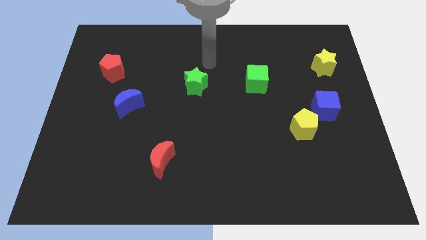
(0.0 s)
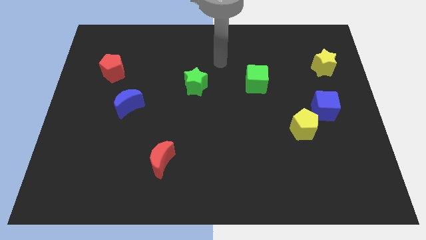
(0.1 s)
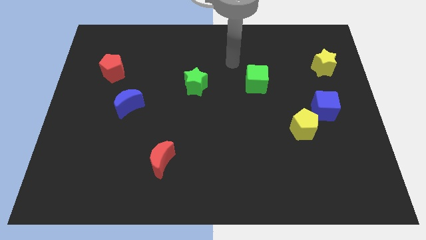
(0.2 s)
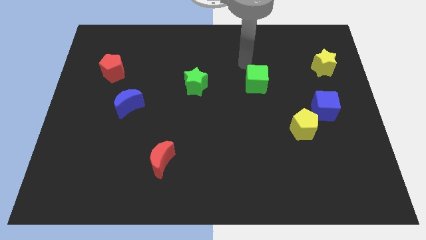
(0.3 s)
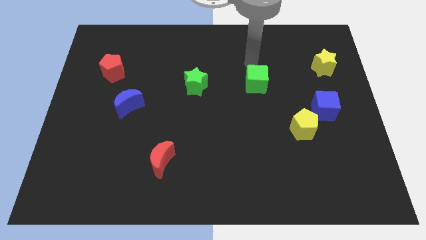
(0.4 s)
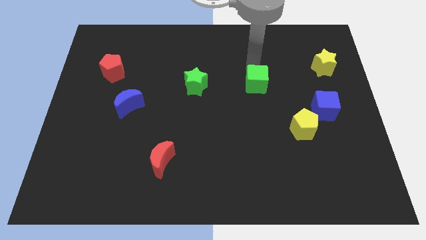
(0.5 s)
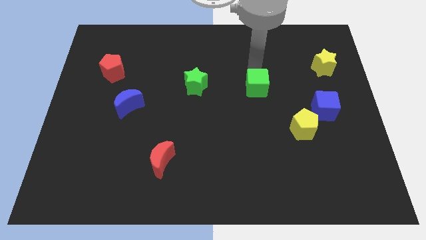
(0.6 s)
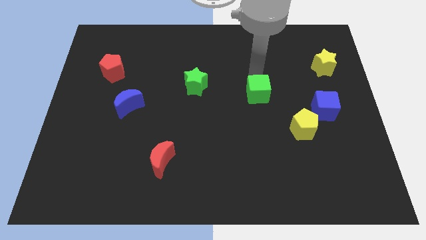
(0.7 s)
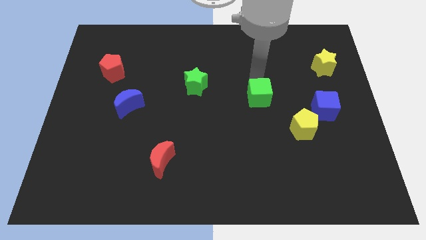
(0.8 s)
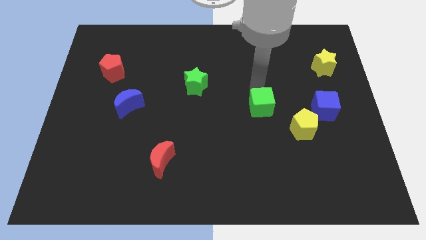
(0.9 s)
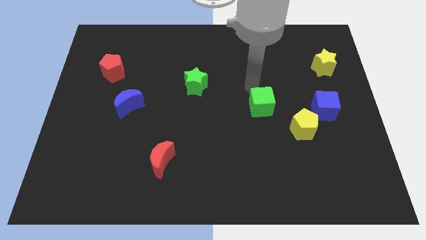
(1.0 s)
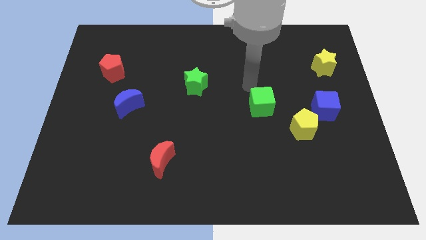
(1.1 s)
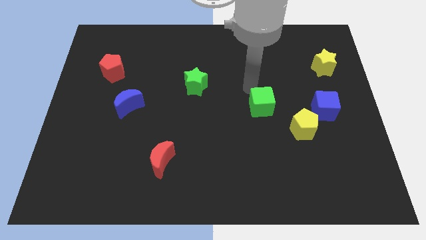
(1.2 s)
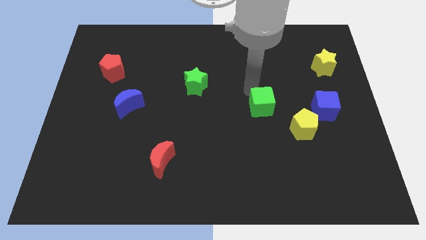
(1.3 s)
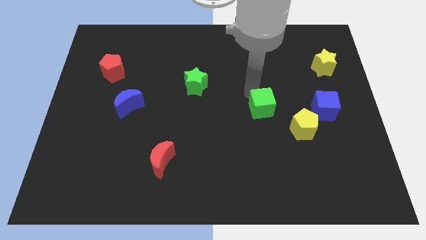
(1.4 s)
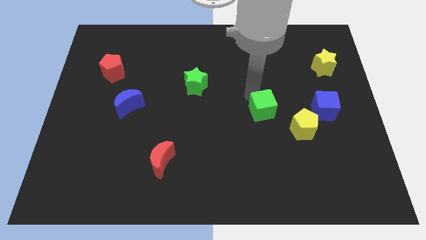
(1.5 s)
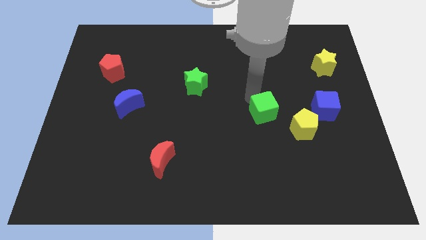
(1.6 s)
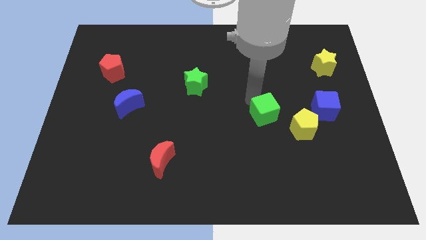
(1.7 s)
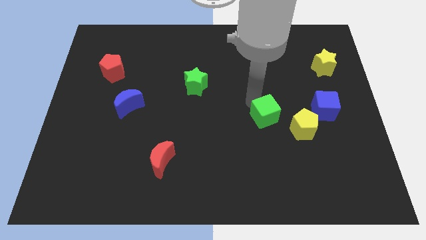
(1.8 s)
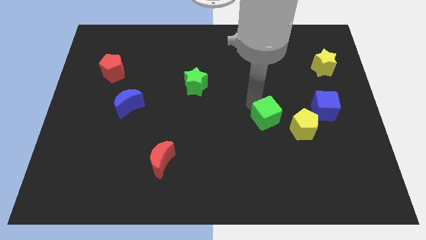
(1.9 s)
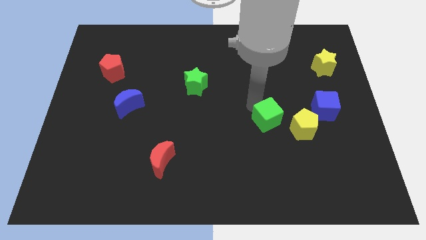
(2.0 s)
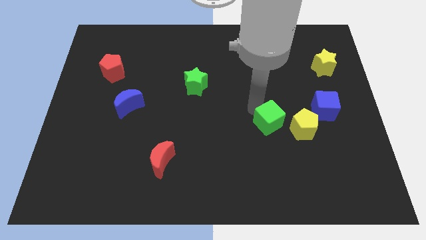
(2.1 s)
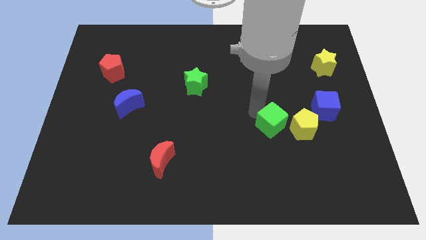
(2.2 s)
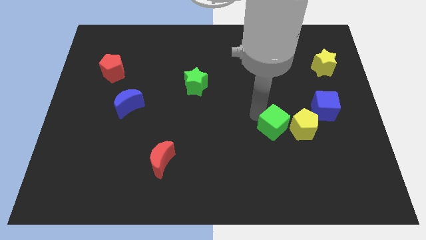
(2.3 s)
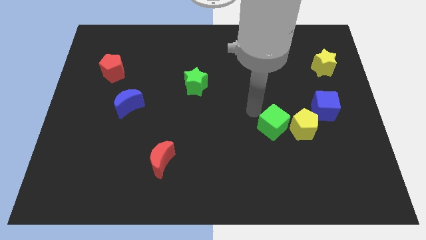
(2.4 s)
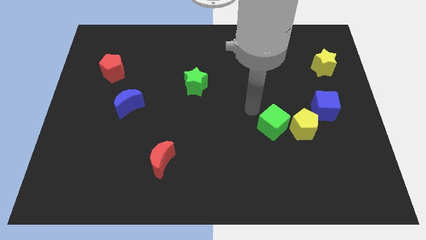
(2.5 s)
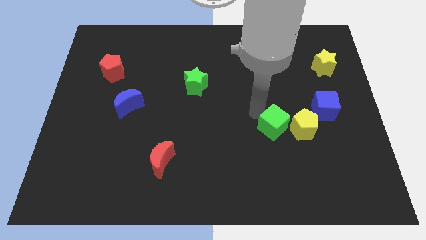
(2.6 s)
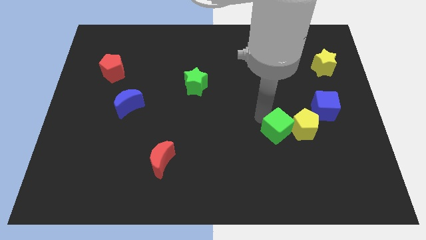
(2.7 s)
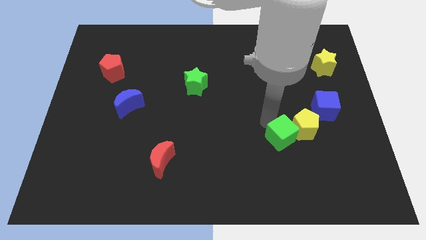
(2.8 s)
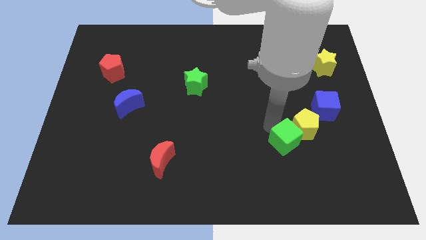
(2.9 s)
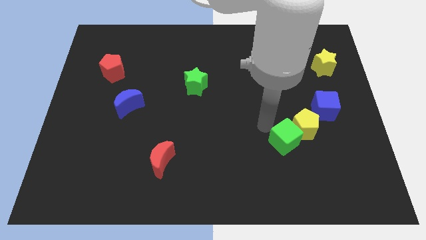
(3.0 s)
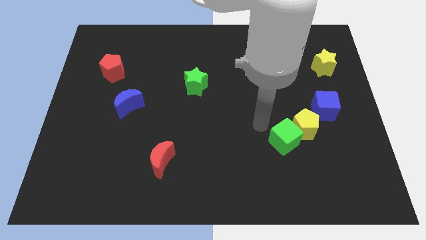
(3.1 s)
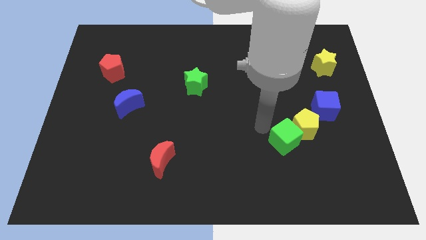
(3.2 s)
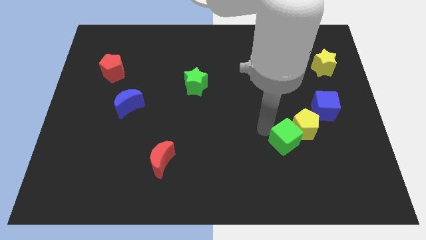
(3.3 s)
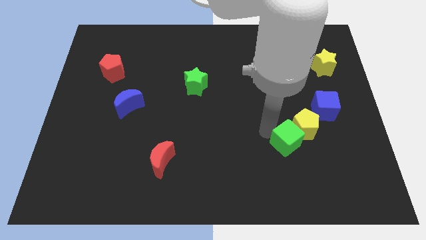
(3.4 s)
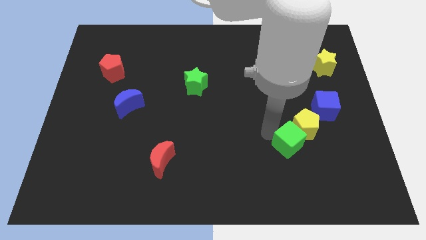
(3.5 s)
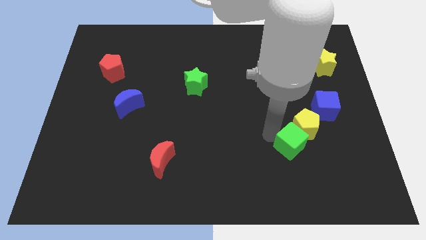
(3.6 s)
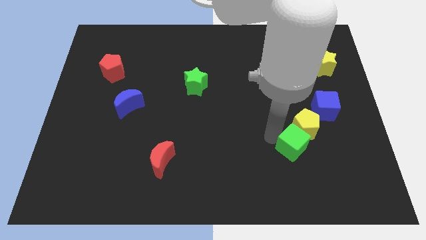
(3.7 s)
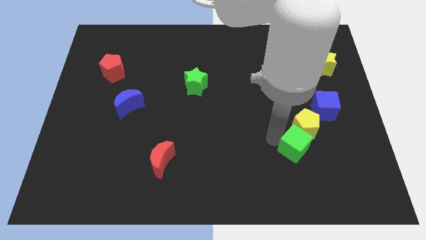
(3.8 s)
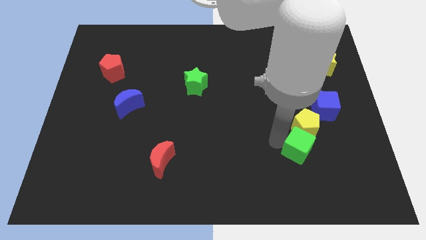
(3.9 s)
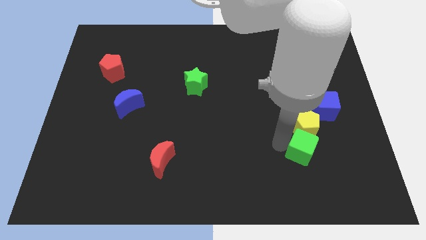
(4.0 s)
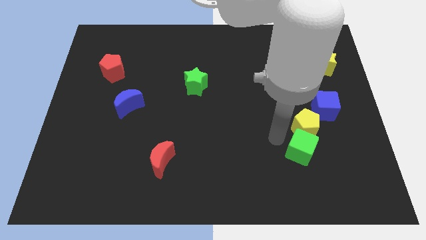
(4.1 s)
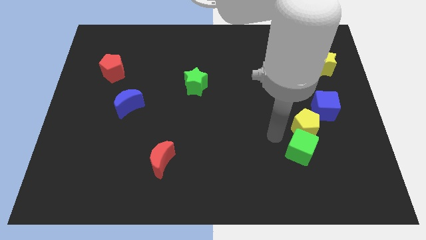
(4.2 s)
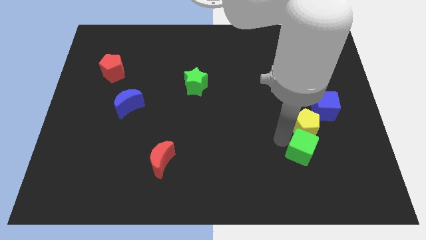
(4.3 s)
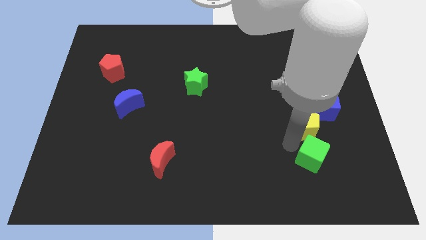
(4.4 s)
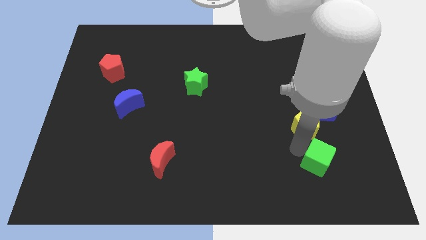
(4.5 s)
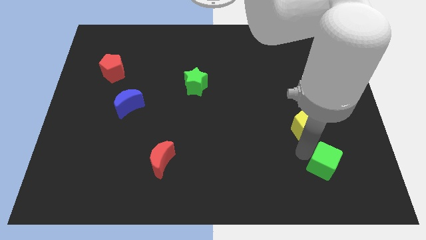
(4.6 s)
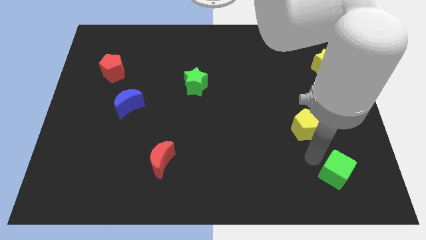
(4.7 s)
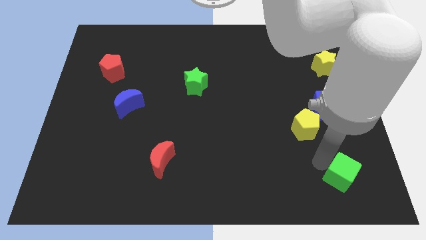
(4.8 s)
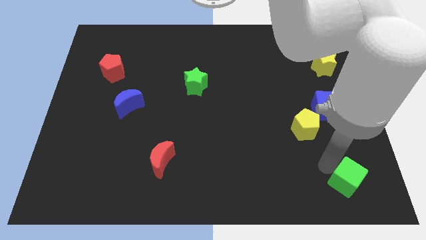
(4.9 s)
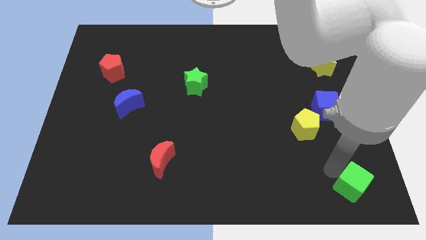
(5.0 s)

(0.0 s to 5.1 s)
slide the green cube to the bottom right

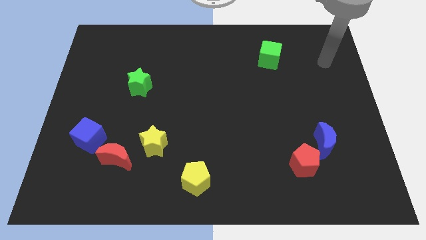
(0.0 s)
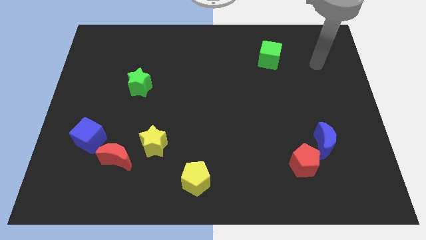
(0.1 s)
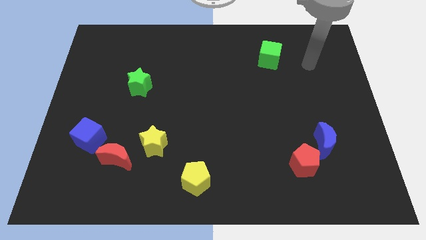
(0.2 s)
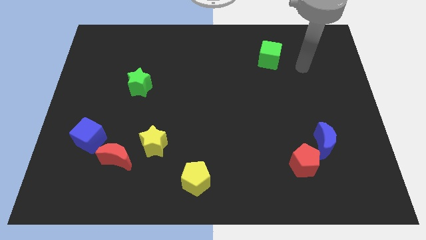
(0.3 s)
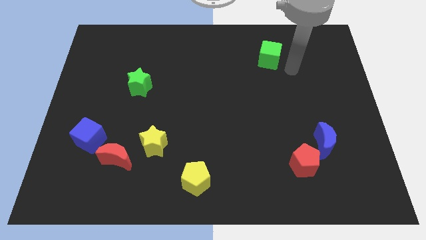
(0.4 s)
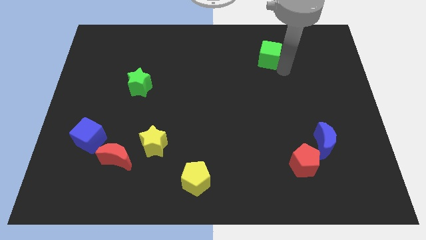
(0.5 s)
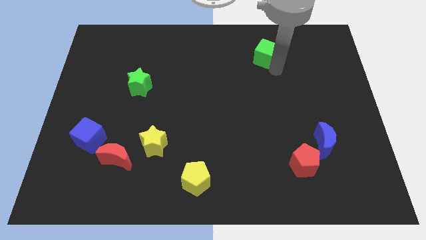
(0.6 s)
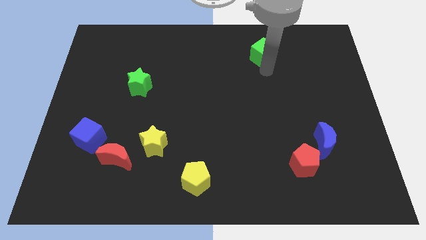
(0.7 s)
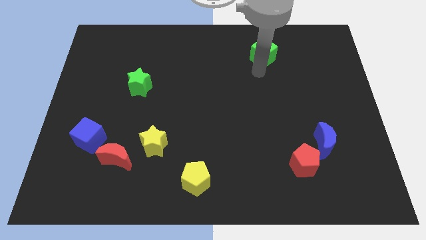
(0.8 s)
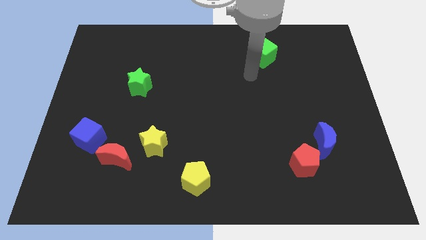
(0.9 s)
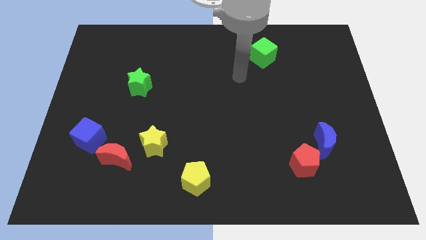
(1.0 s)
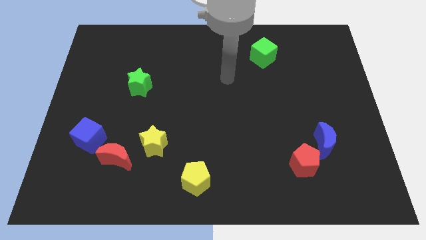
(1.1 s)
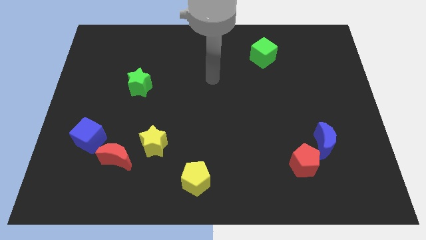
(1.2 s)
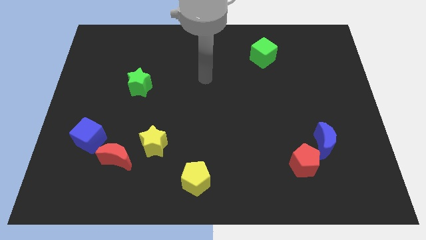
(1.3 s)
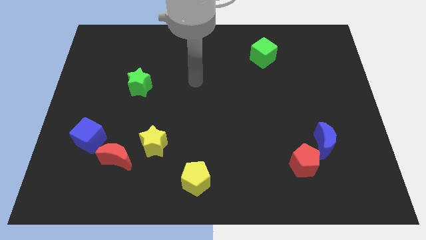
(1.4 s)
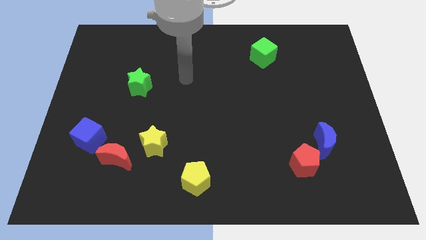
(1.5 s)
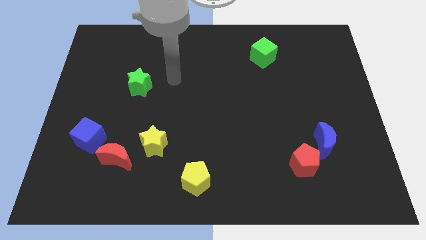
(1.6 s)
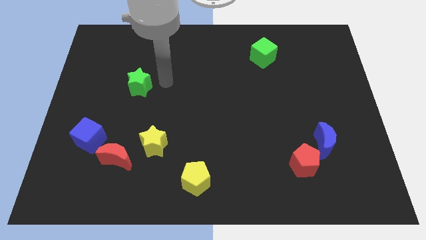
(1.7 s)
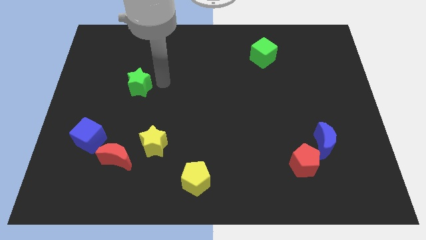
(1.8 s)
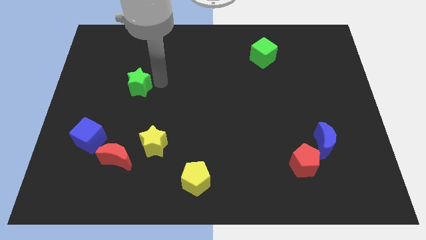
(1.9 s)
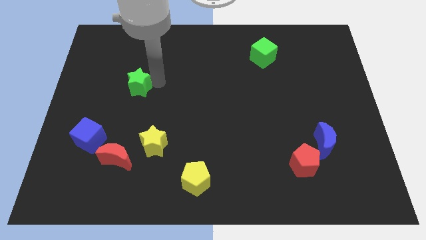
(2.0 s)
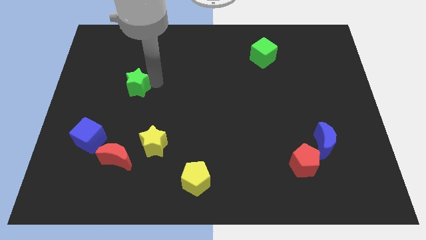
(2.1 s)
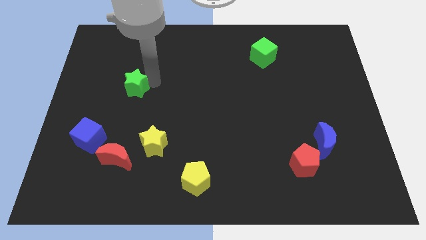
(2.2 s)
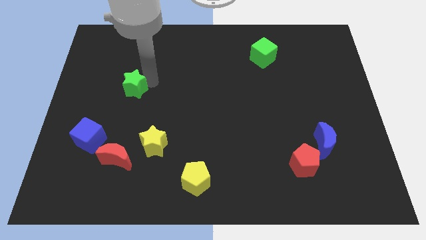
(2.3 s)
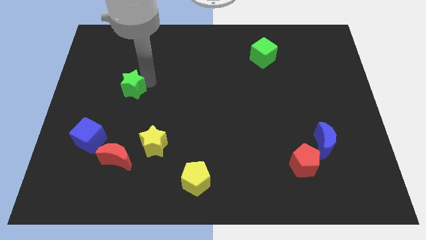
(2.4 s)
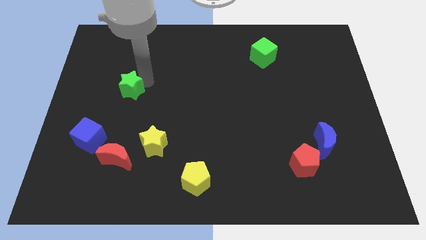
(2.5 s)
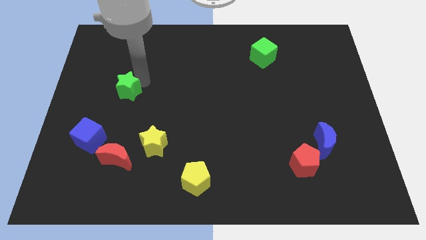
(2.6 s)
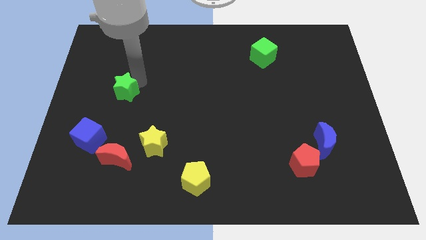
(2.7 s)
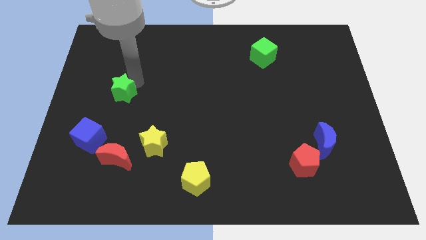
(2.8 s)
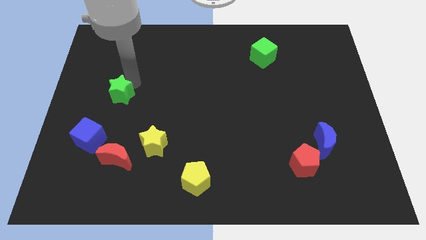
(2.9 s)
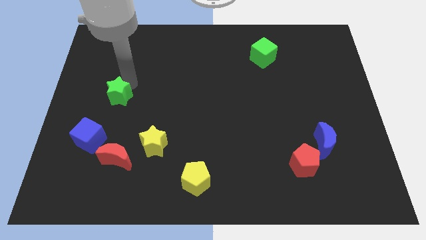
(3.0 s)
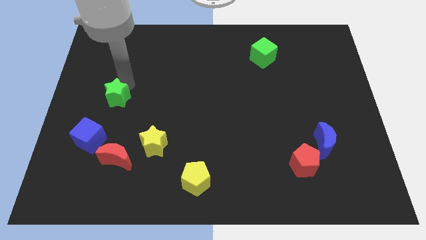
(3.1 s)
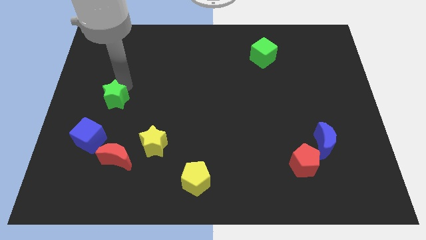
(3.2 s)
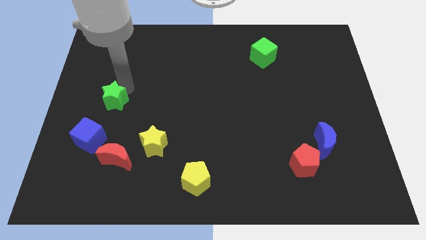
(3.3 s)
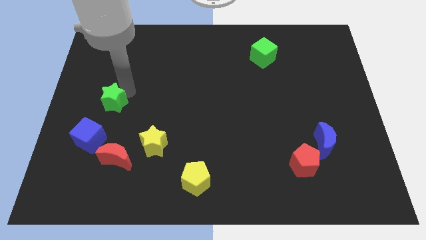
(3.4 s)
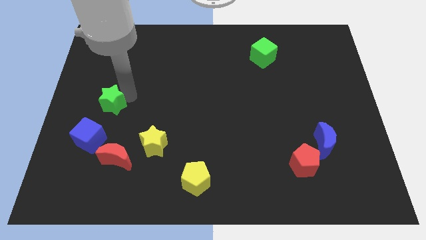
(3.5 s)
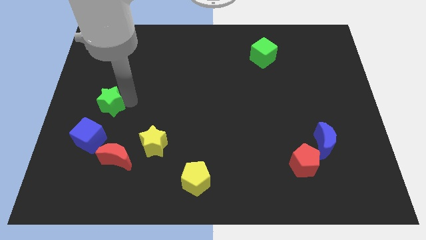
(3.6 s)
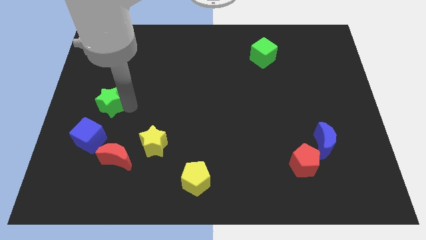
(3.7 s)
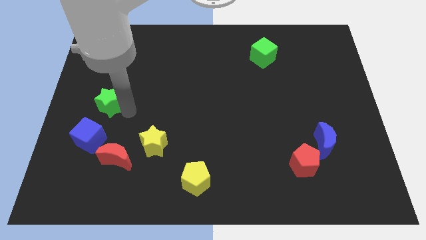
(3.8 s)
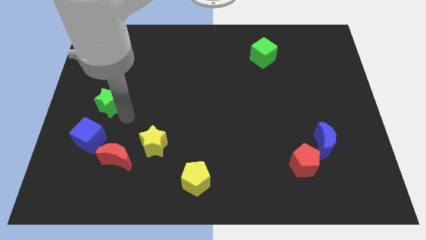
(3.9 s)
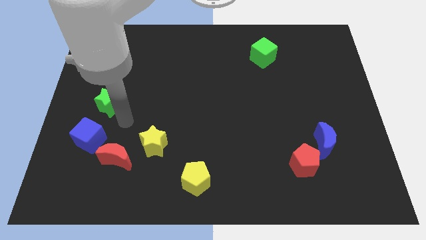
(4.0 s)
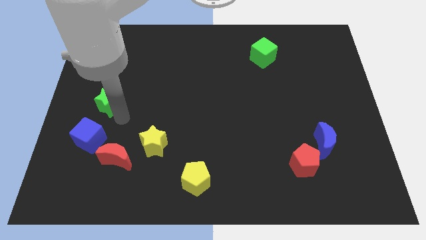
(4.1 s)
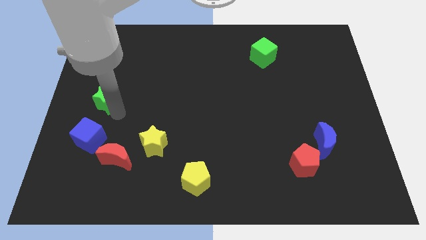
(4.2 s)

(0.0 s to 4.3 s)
put the green star to the left side
